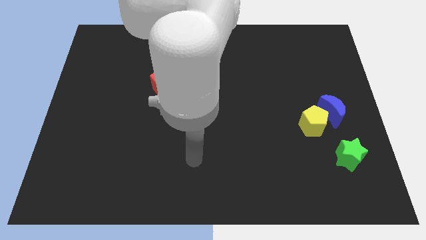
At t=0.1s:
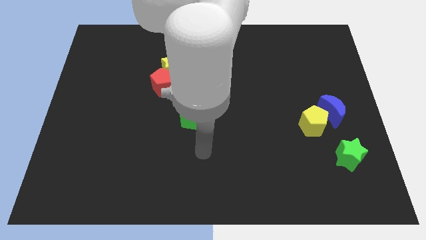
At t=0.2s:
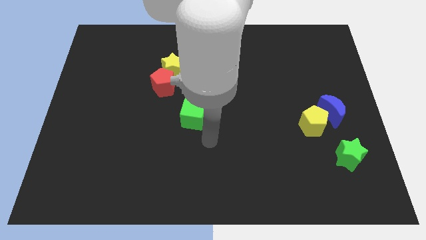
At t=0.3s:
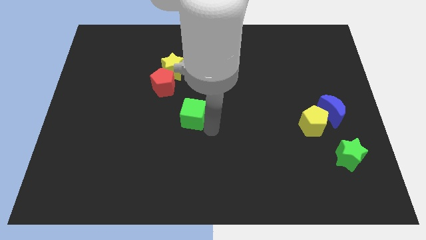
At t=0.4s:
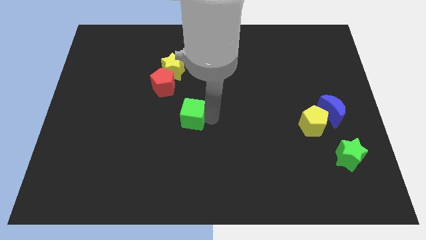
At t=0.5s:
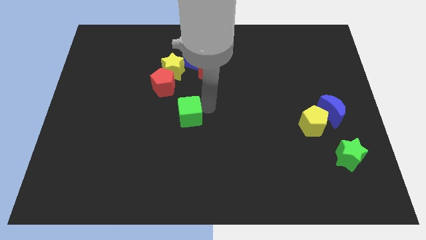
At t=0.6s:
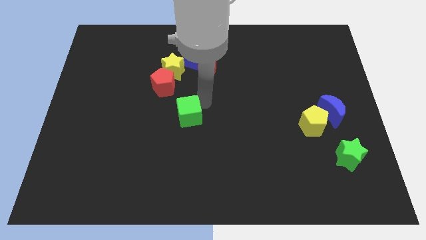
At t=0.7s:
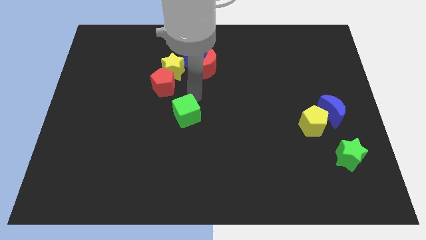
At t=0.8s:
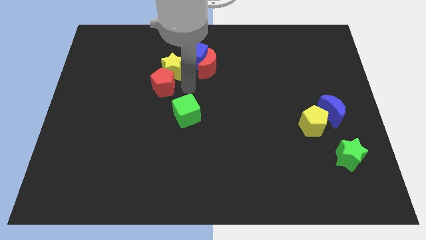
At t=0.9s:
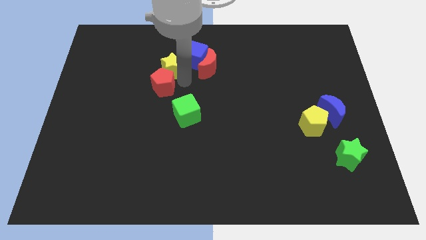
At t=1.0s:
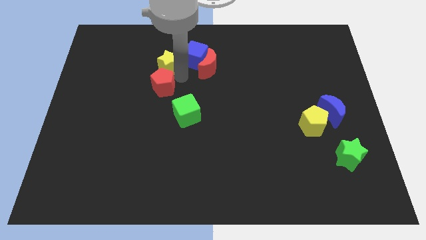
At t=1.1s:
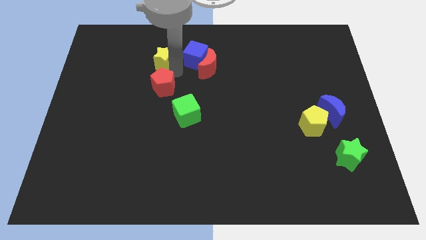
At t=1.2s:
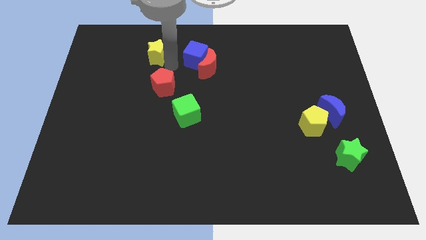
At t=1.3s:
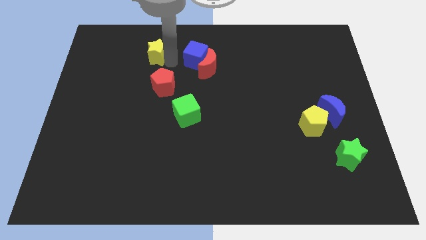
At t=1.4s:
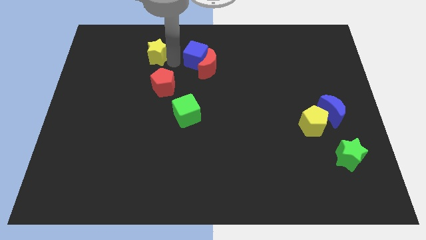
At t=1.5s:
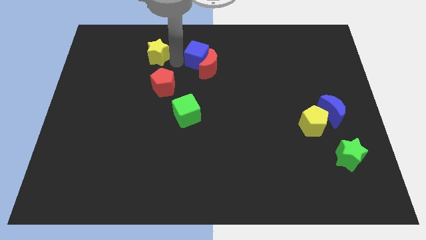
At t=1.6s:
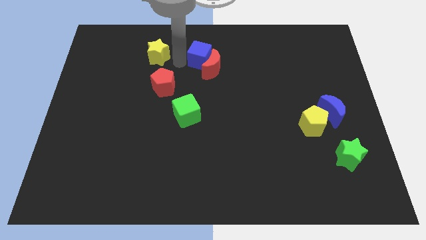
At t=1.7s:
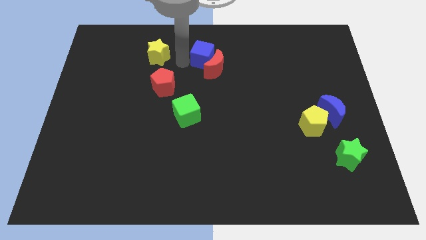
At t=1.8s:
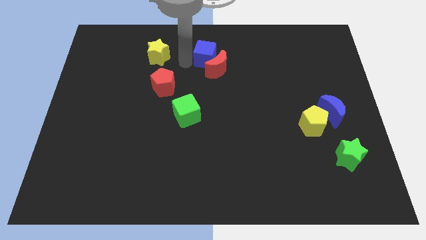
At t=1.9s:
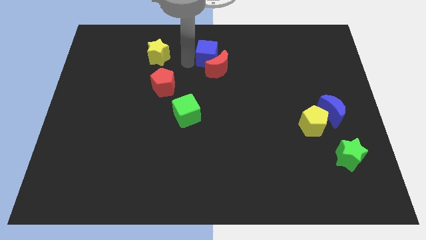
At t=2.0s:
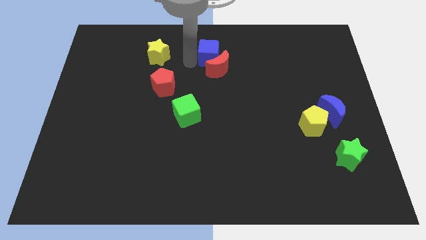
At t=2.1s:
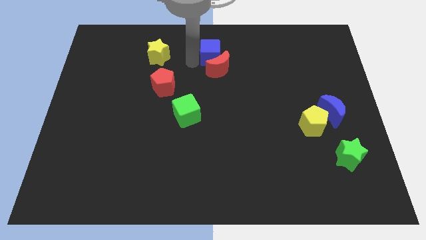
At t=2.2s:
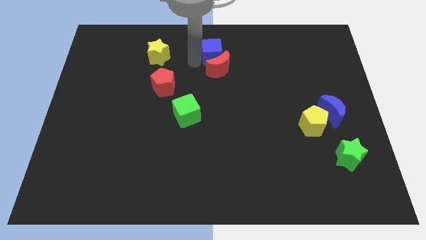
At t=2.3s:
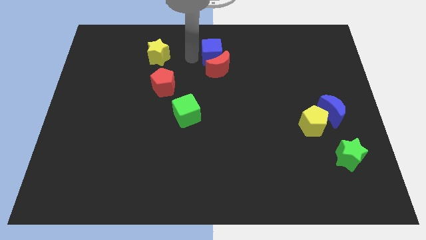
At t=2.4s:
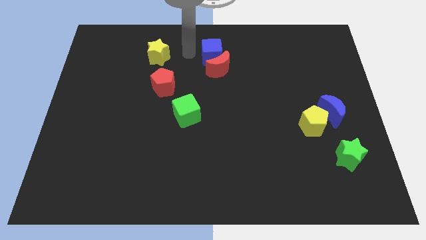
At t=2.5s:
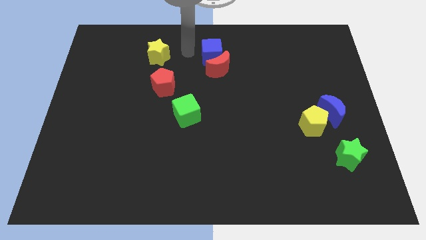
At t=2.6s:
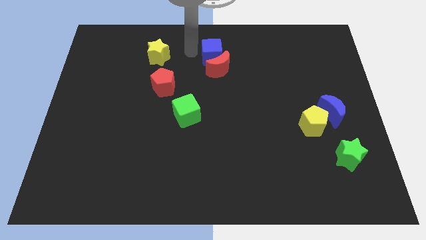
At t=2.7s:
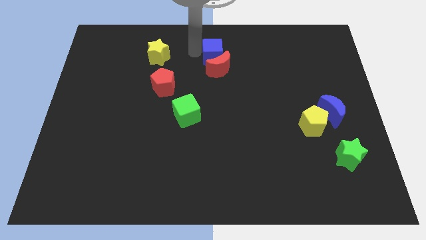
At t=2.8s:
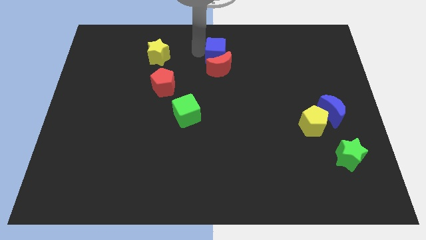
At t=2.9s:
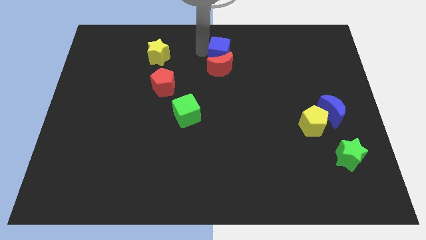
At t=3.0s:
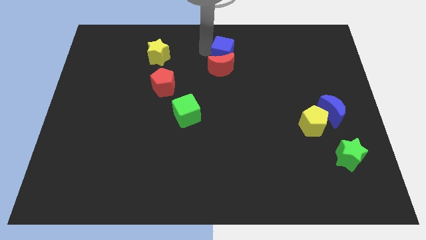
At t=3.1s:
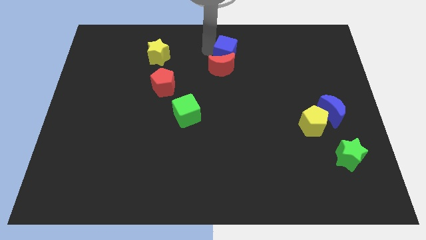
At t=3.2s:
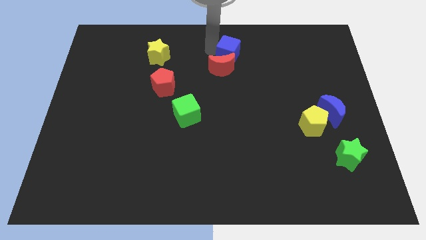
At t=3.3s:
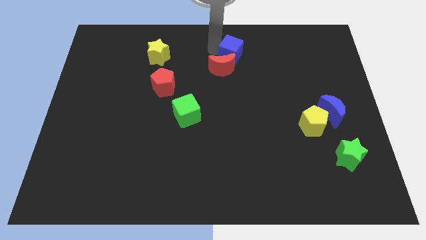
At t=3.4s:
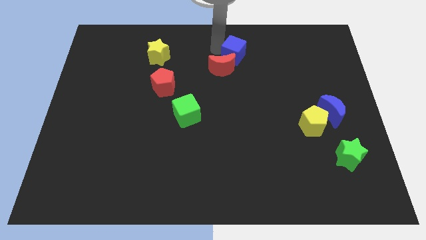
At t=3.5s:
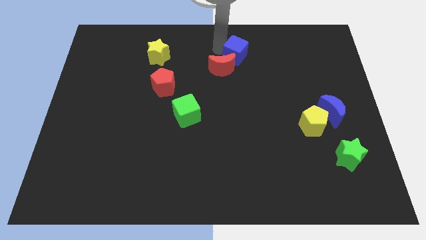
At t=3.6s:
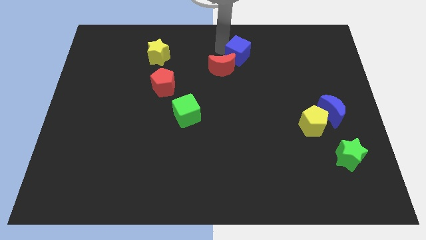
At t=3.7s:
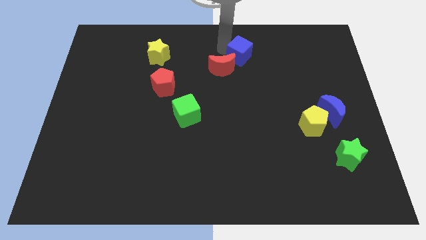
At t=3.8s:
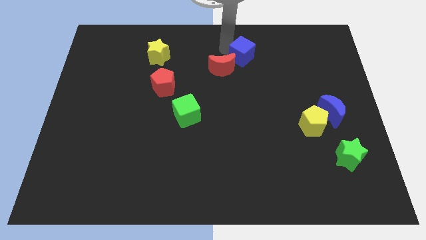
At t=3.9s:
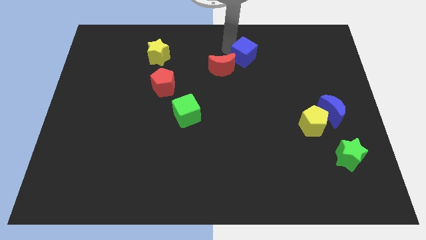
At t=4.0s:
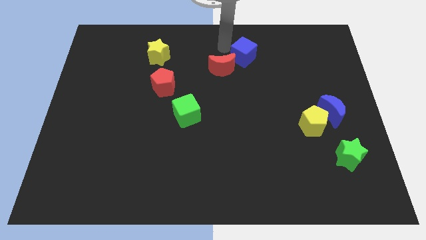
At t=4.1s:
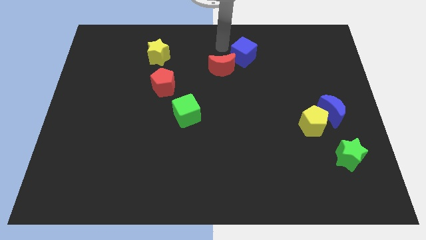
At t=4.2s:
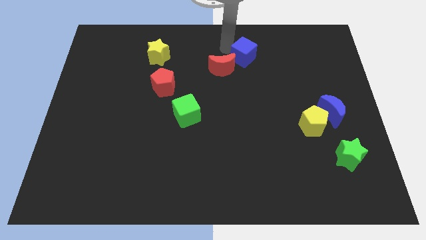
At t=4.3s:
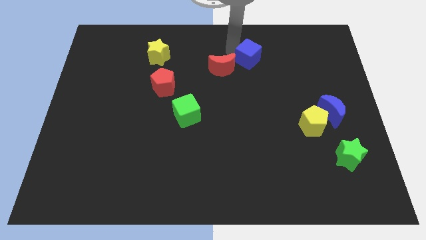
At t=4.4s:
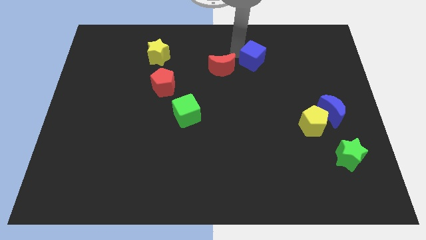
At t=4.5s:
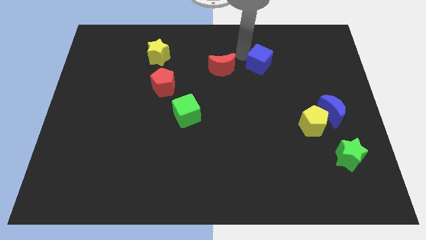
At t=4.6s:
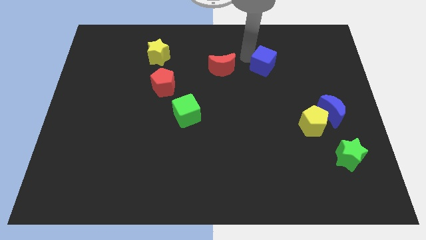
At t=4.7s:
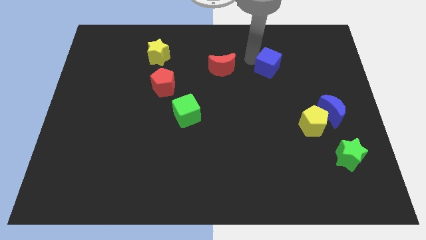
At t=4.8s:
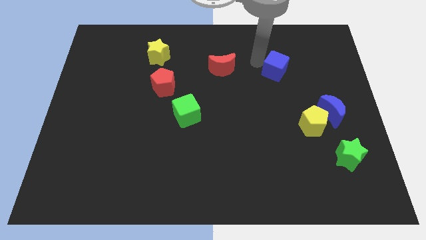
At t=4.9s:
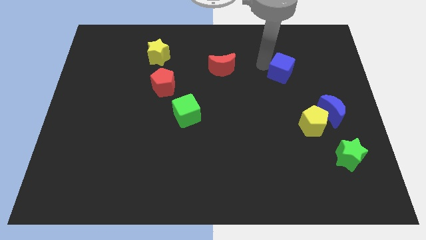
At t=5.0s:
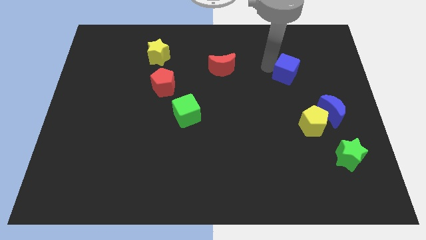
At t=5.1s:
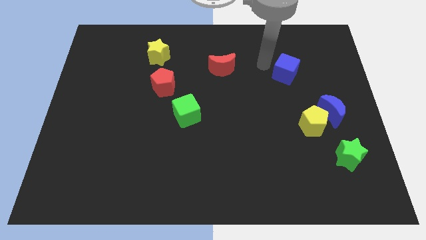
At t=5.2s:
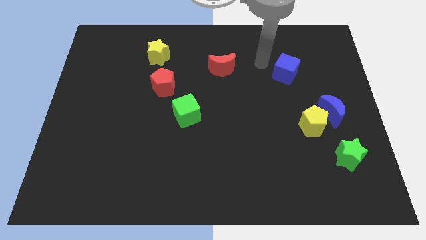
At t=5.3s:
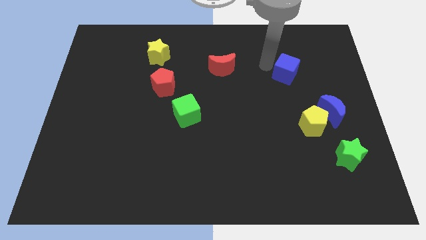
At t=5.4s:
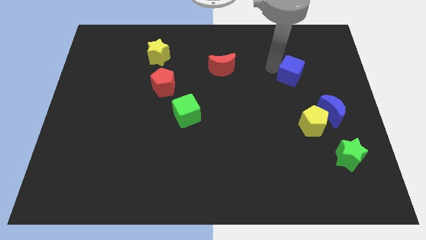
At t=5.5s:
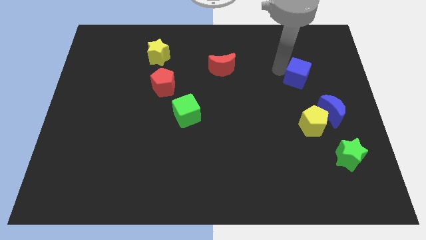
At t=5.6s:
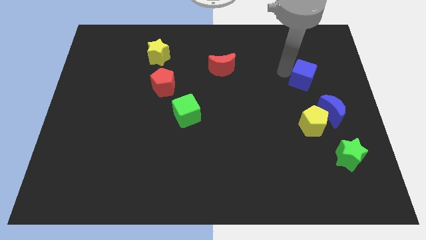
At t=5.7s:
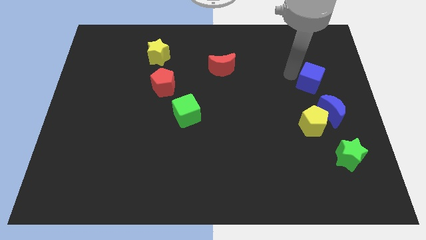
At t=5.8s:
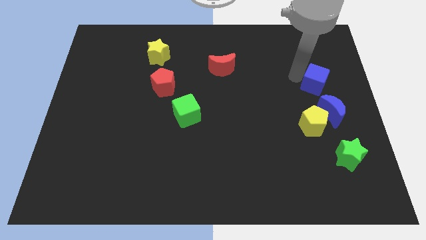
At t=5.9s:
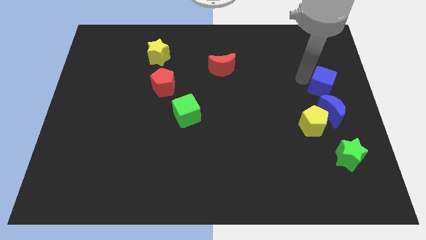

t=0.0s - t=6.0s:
slide the blue cube to the right side

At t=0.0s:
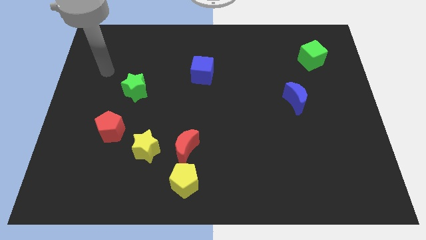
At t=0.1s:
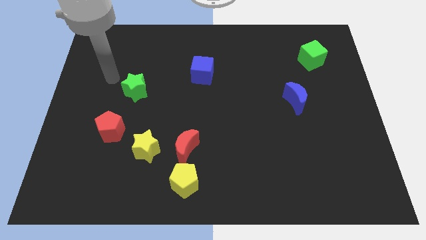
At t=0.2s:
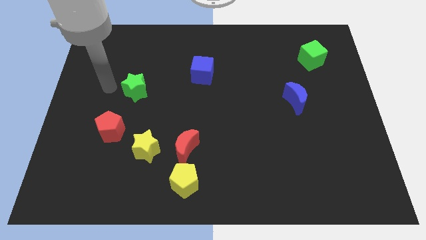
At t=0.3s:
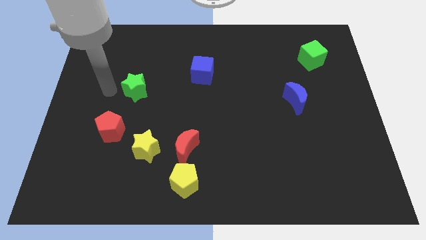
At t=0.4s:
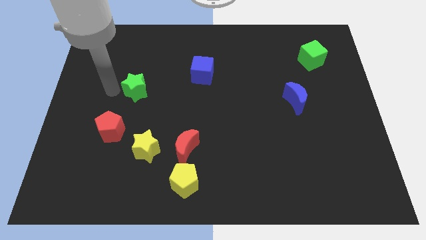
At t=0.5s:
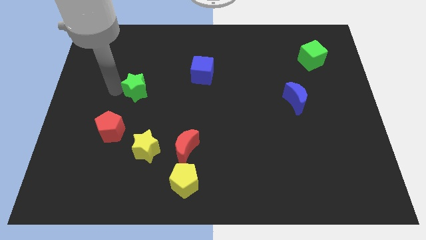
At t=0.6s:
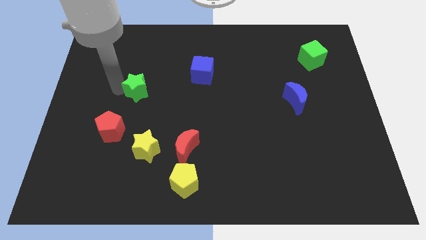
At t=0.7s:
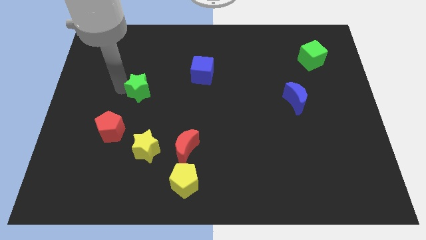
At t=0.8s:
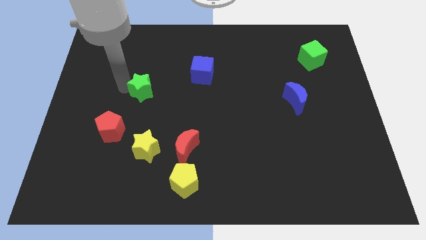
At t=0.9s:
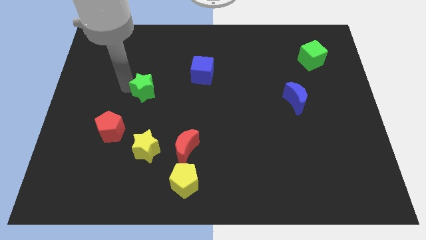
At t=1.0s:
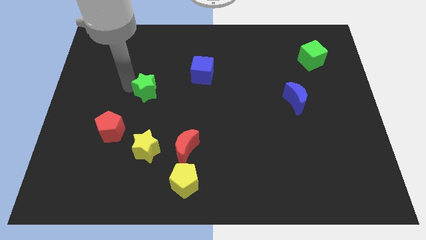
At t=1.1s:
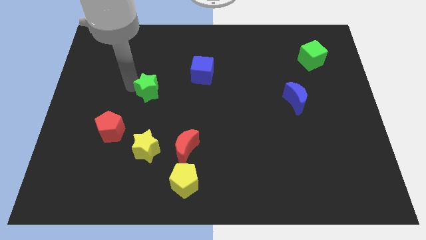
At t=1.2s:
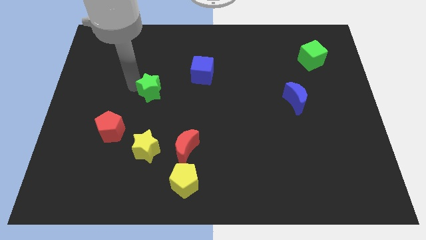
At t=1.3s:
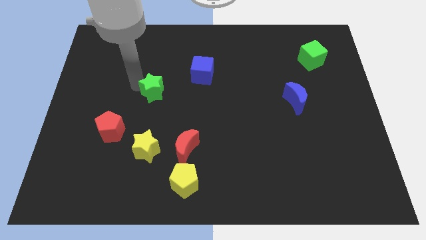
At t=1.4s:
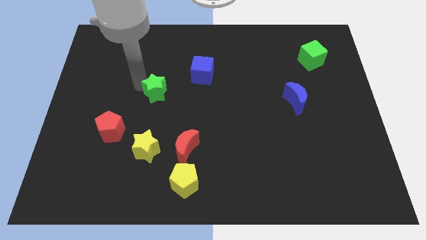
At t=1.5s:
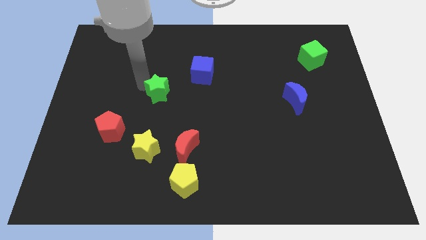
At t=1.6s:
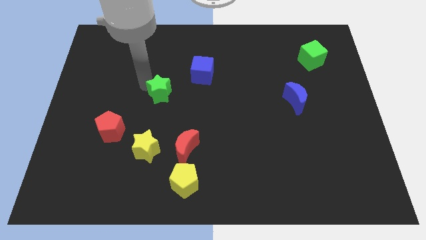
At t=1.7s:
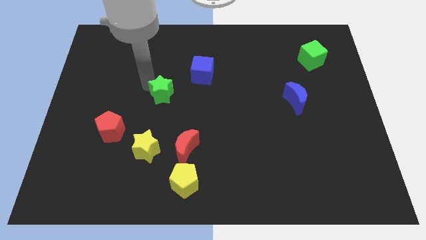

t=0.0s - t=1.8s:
slide the green star to the center
